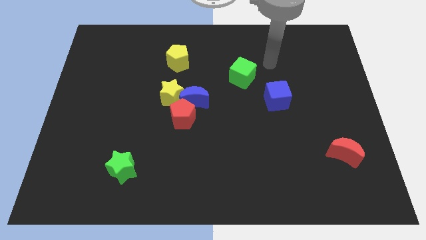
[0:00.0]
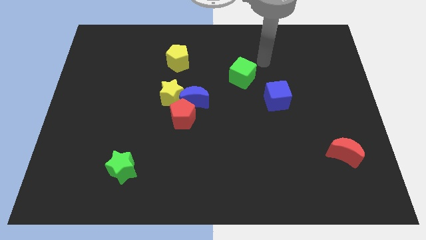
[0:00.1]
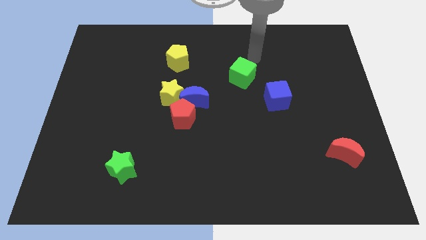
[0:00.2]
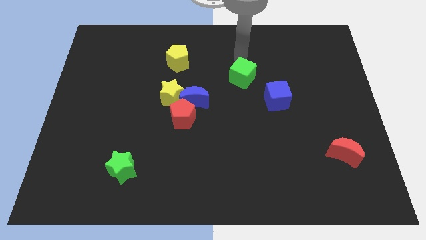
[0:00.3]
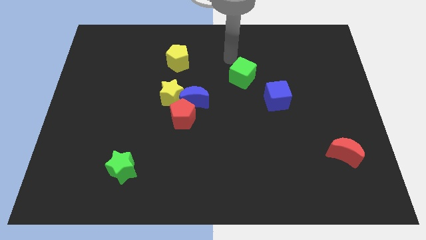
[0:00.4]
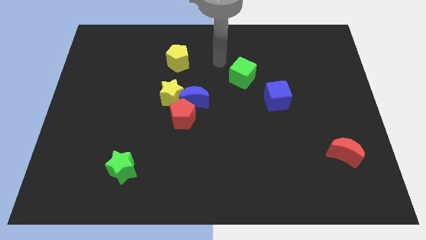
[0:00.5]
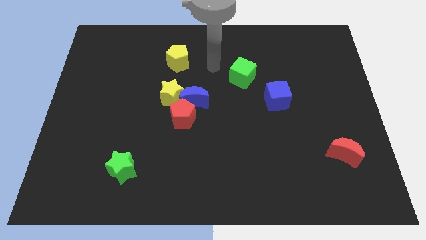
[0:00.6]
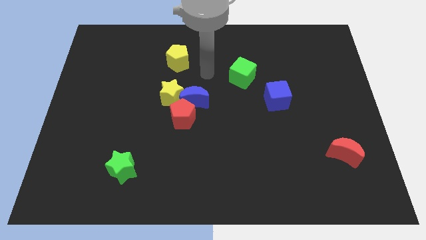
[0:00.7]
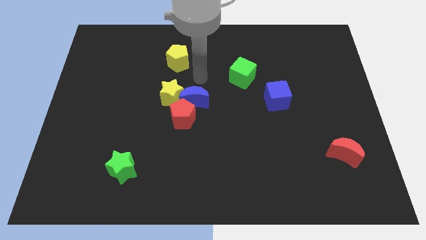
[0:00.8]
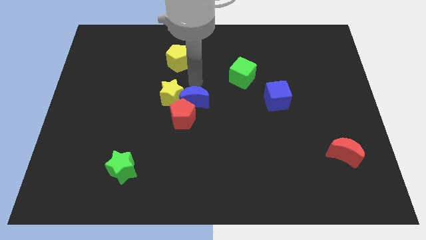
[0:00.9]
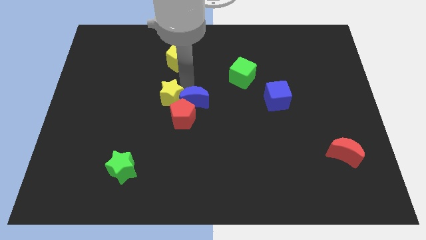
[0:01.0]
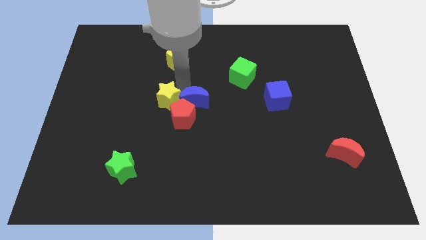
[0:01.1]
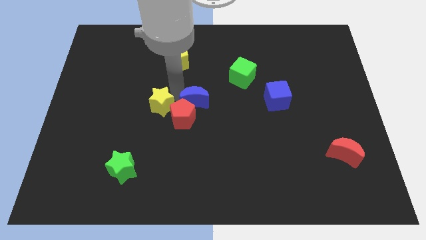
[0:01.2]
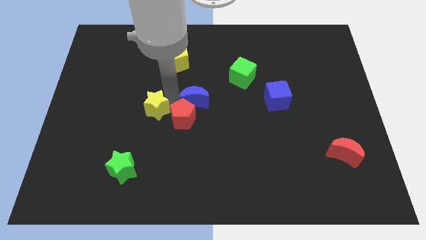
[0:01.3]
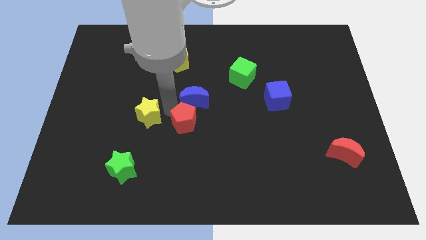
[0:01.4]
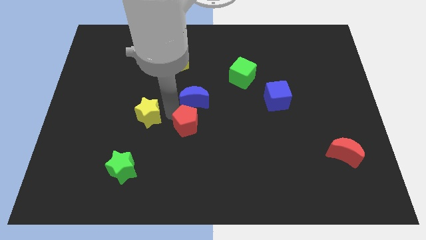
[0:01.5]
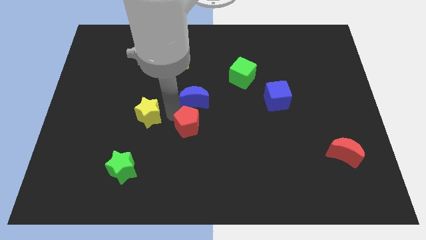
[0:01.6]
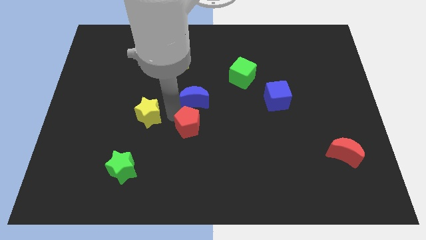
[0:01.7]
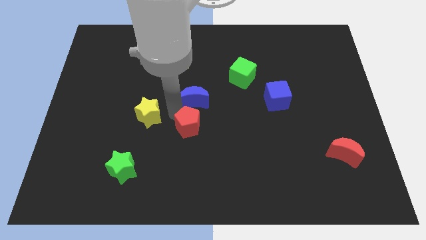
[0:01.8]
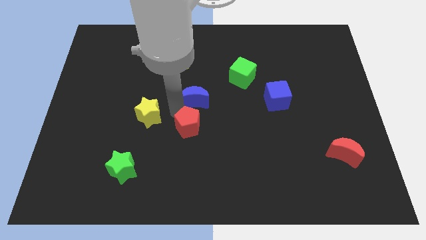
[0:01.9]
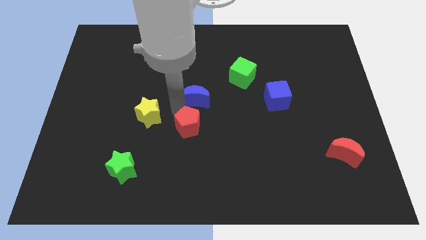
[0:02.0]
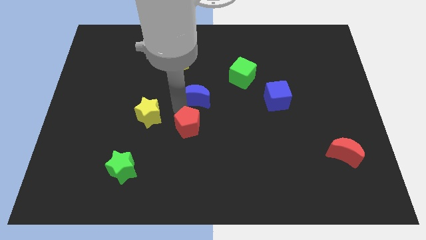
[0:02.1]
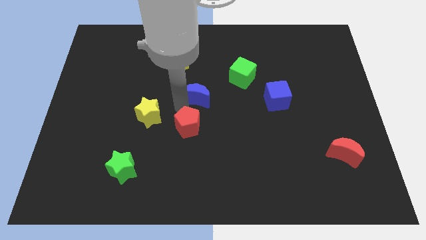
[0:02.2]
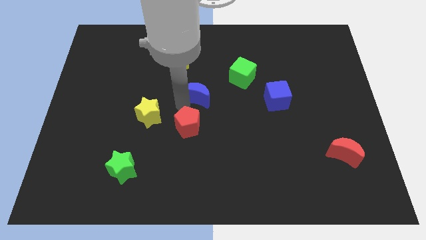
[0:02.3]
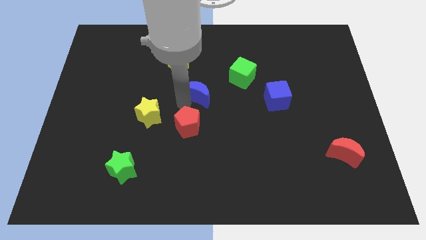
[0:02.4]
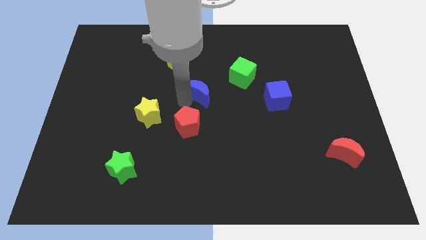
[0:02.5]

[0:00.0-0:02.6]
separate the blue moon from the yellow star and red pentagon

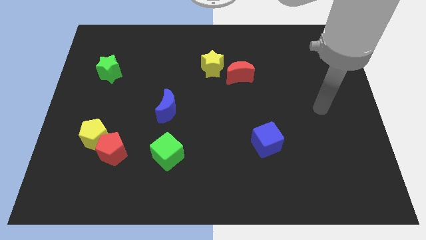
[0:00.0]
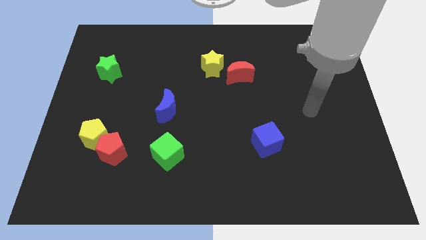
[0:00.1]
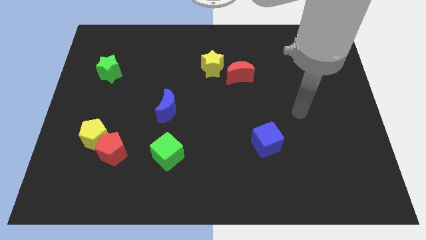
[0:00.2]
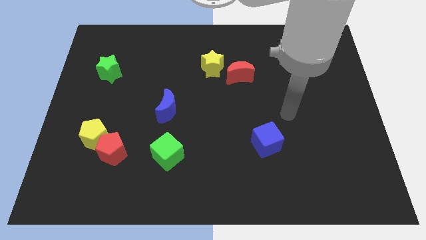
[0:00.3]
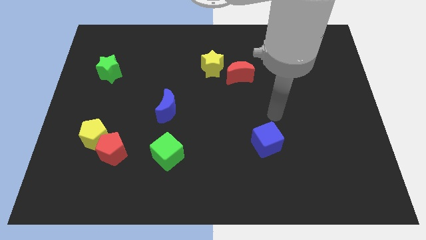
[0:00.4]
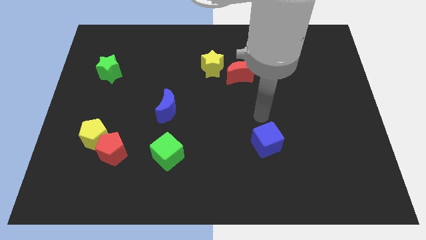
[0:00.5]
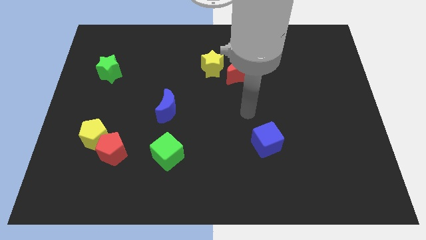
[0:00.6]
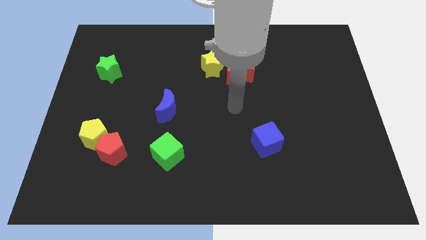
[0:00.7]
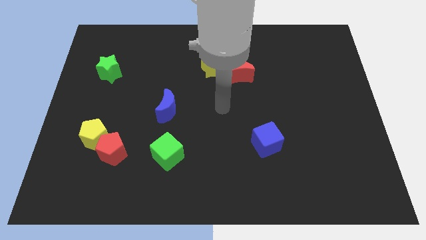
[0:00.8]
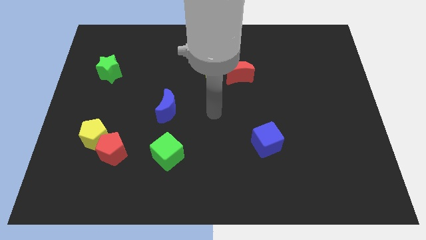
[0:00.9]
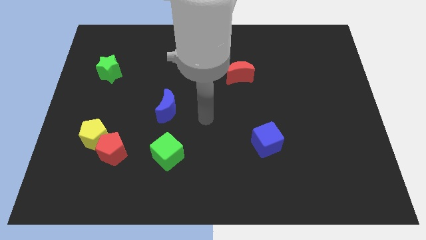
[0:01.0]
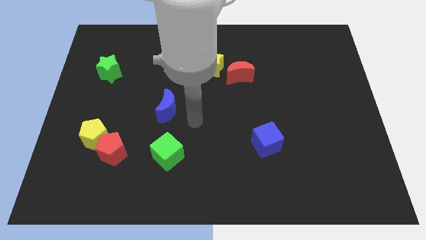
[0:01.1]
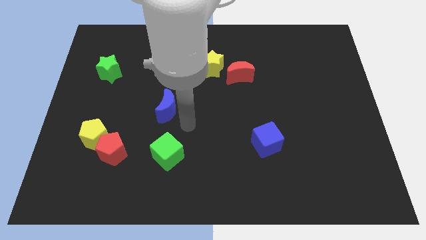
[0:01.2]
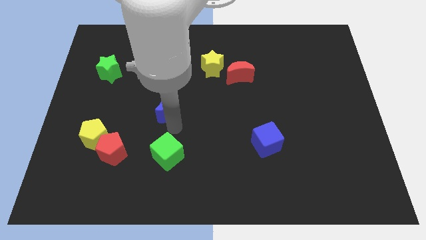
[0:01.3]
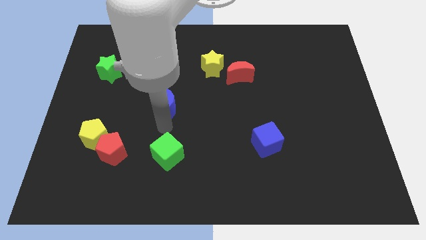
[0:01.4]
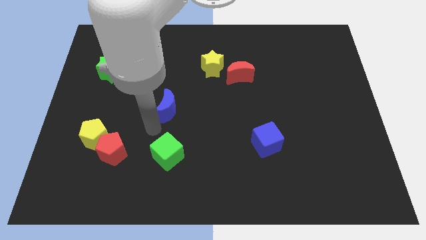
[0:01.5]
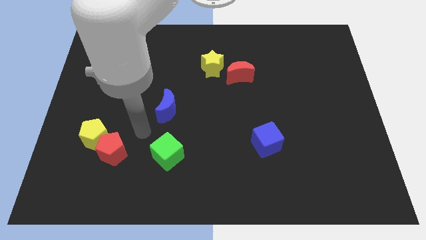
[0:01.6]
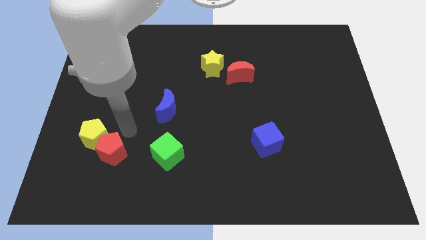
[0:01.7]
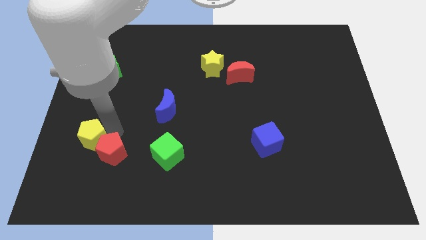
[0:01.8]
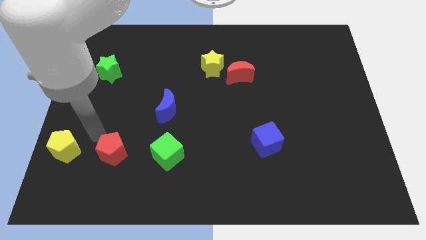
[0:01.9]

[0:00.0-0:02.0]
separate the red pentagon from the yellow pentagon

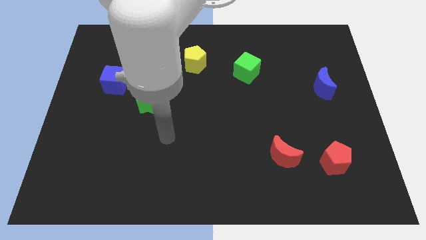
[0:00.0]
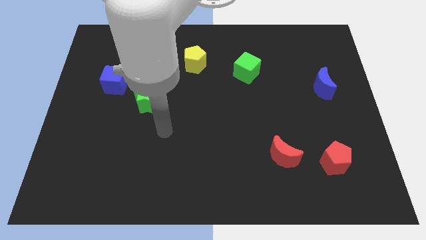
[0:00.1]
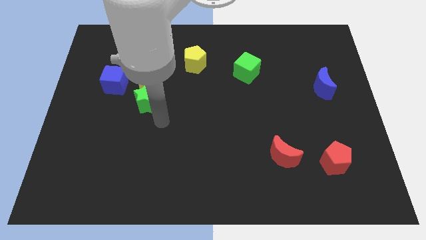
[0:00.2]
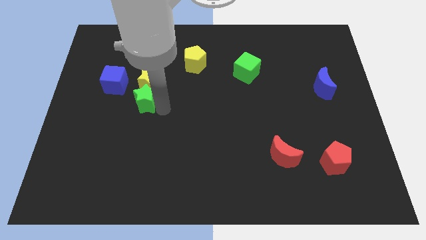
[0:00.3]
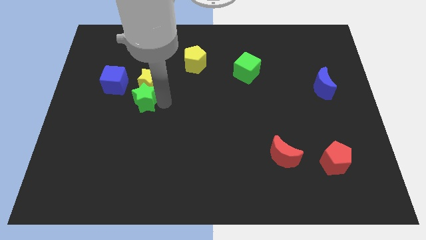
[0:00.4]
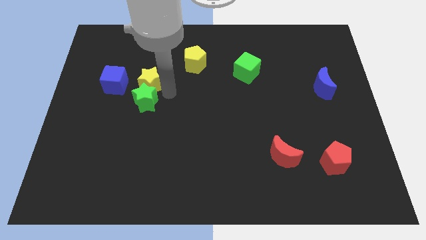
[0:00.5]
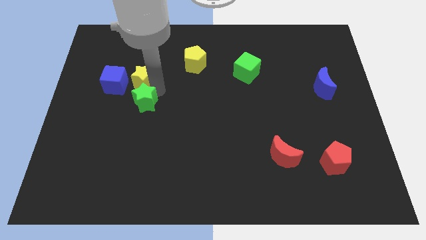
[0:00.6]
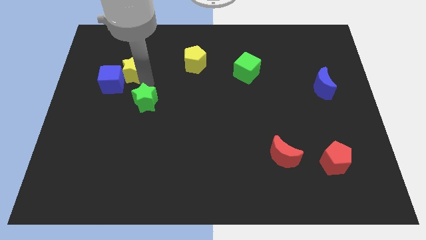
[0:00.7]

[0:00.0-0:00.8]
separate the green star from the yellow star

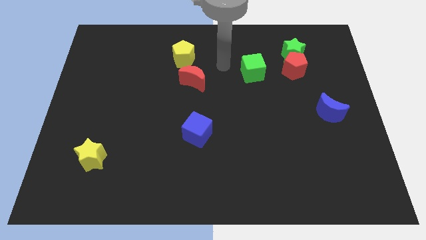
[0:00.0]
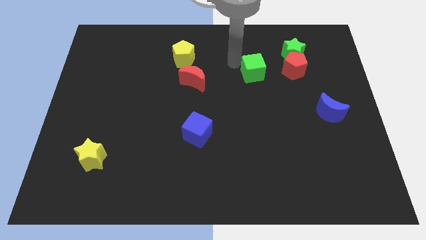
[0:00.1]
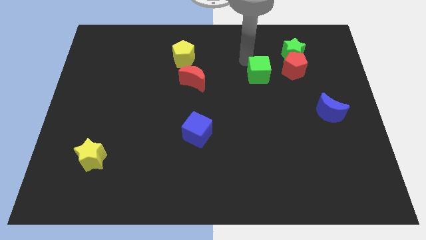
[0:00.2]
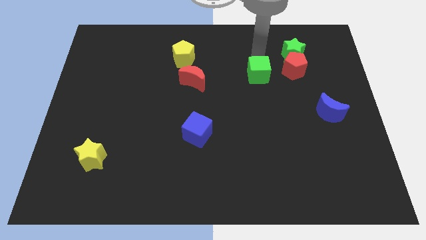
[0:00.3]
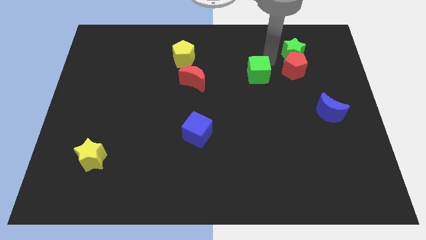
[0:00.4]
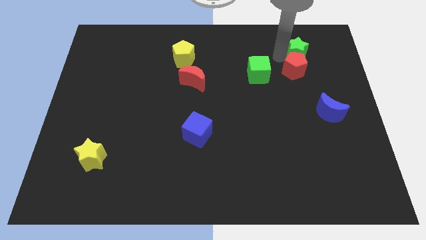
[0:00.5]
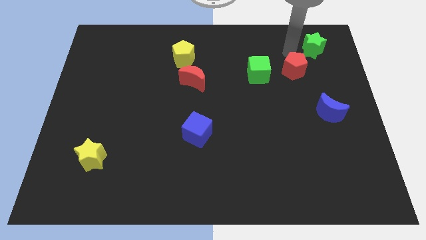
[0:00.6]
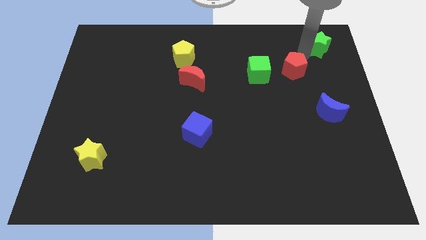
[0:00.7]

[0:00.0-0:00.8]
separate the red pentagon from the green star

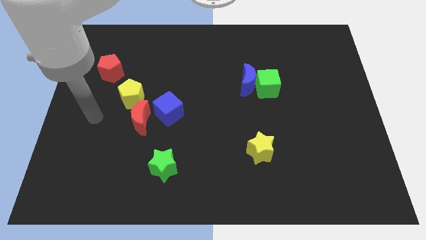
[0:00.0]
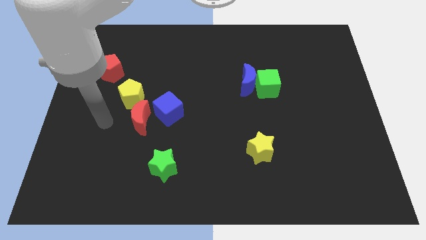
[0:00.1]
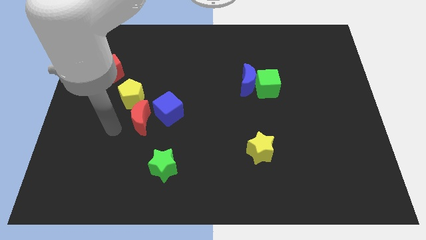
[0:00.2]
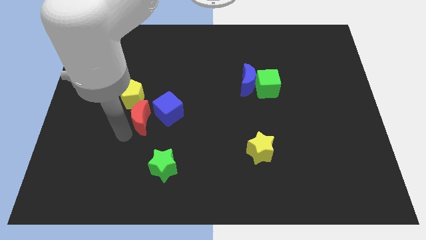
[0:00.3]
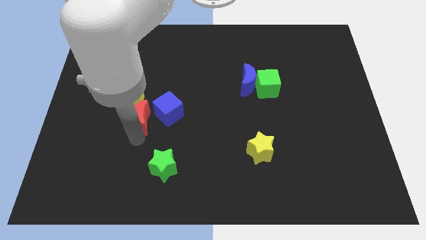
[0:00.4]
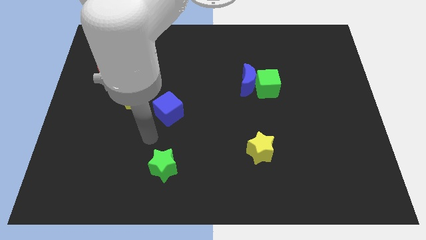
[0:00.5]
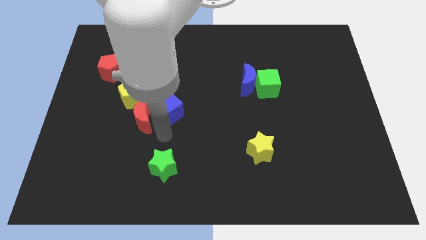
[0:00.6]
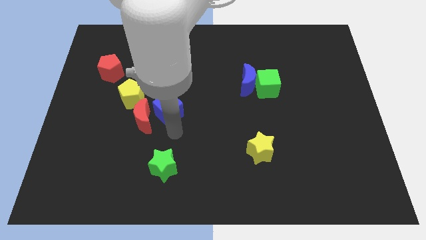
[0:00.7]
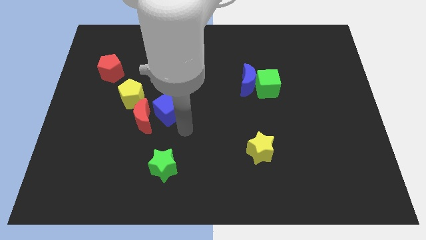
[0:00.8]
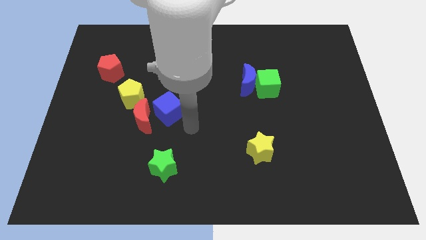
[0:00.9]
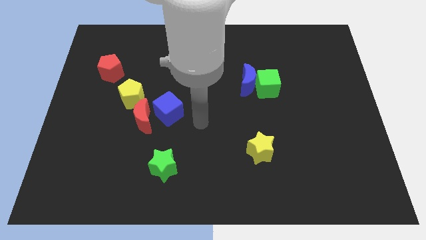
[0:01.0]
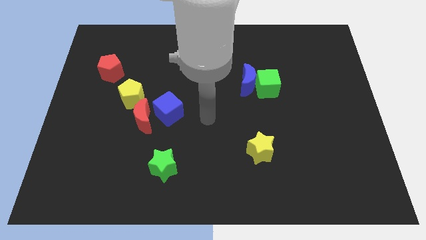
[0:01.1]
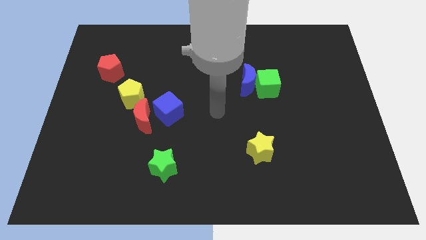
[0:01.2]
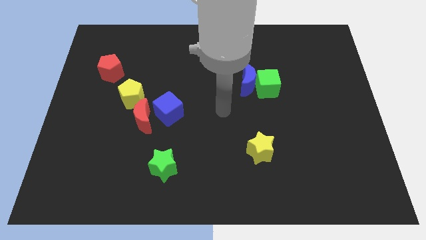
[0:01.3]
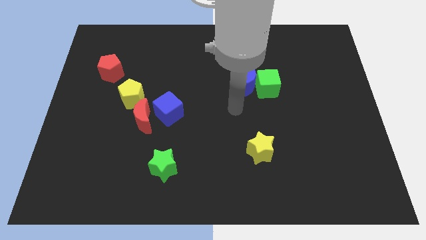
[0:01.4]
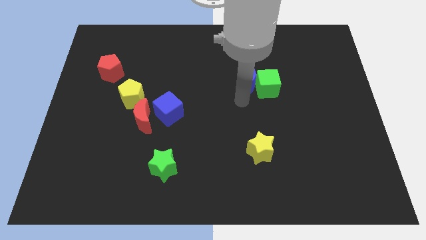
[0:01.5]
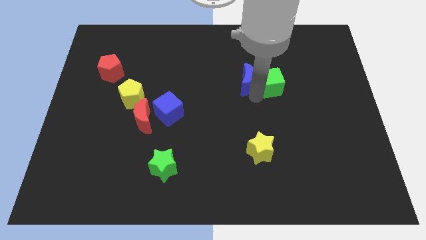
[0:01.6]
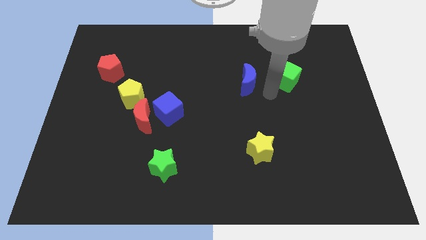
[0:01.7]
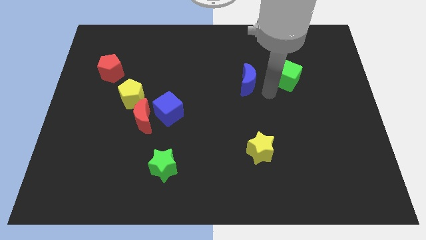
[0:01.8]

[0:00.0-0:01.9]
pull the blue moon apart from the green cube

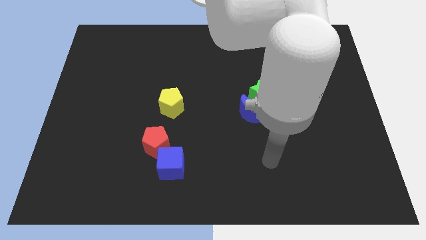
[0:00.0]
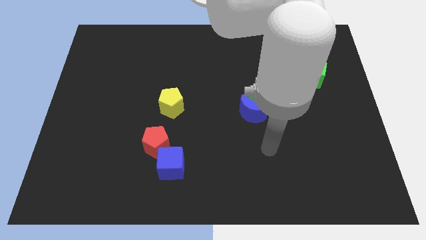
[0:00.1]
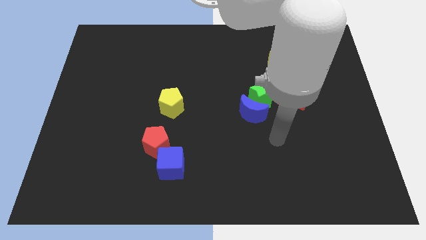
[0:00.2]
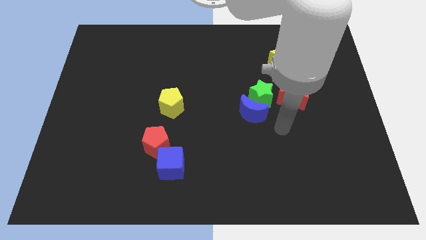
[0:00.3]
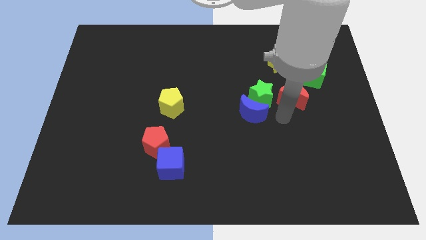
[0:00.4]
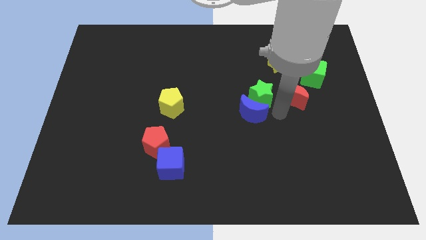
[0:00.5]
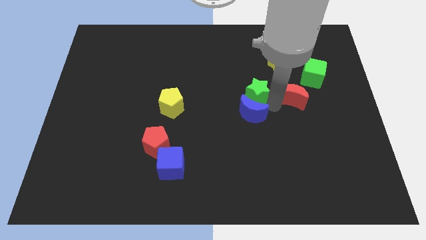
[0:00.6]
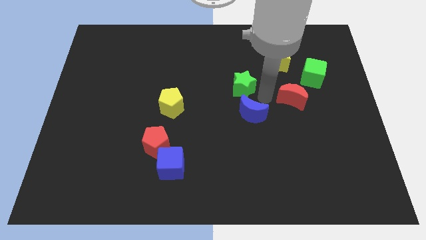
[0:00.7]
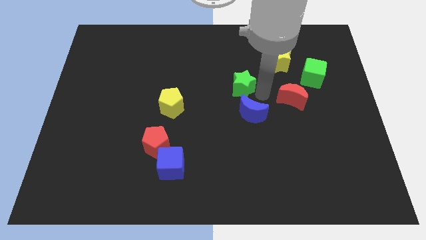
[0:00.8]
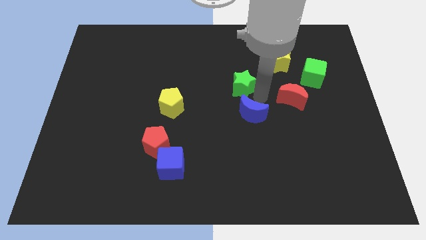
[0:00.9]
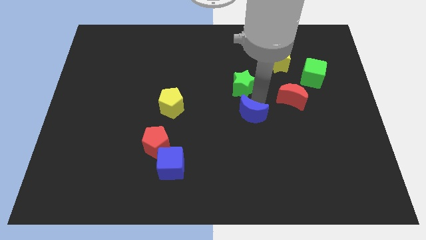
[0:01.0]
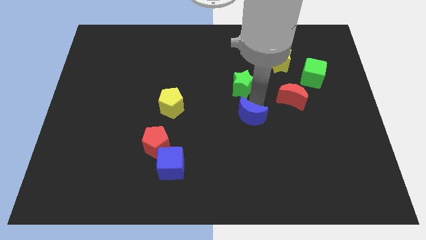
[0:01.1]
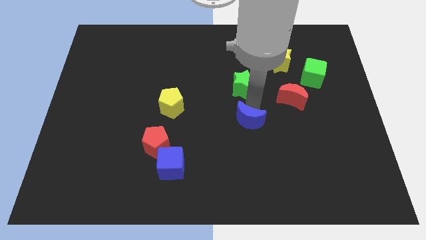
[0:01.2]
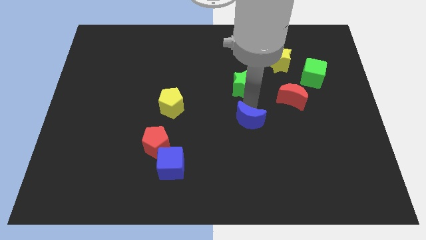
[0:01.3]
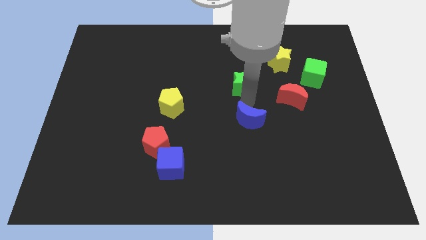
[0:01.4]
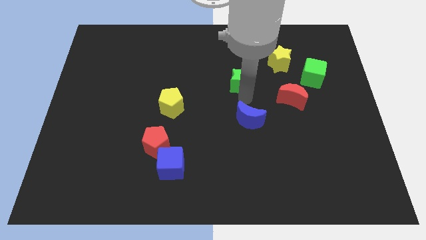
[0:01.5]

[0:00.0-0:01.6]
pull the blue moon apart from the green star
